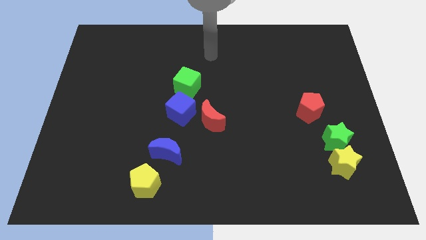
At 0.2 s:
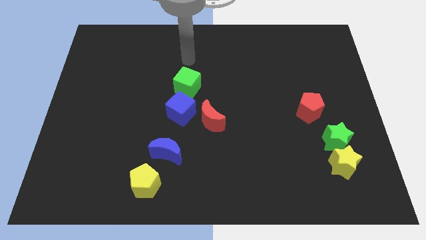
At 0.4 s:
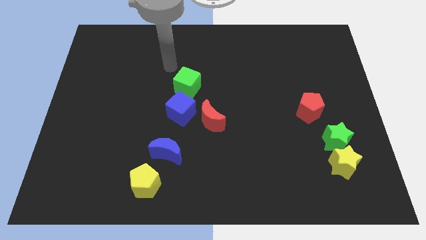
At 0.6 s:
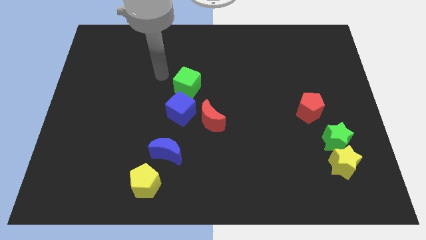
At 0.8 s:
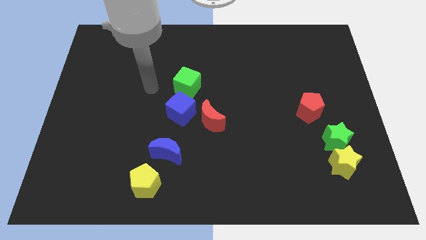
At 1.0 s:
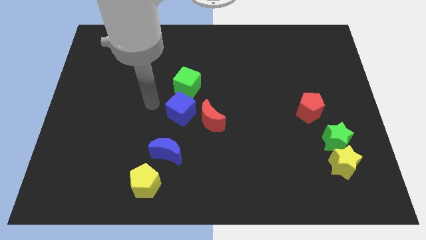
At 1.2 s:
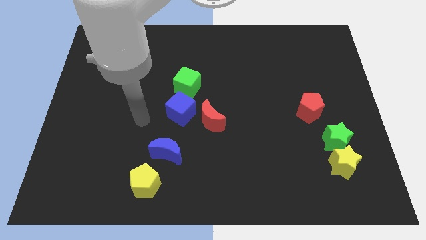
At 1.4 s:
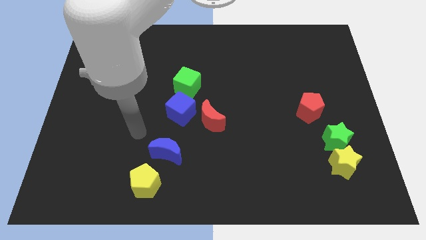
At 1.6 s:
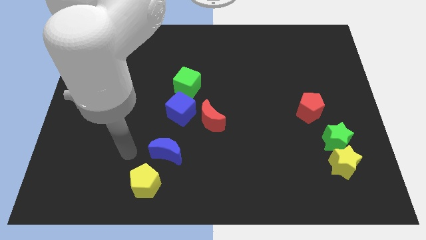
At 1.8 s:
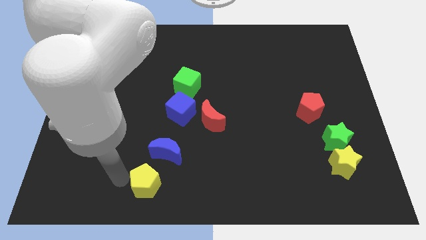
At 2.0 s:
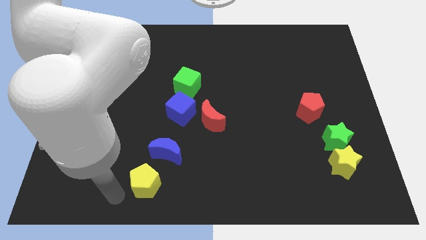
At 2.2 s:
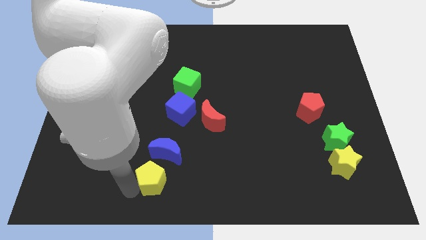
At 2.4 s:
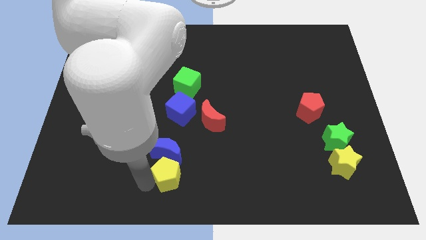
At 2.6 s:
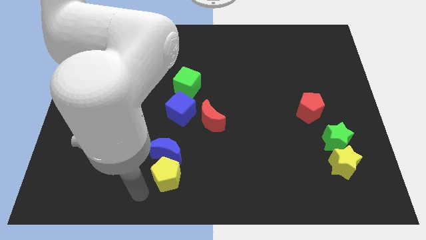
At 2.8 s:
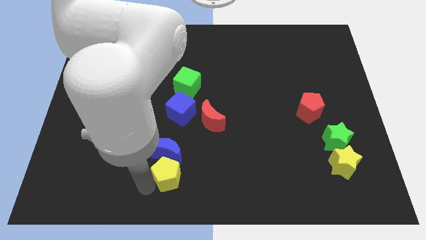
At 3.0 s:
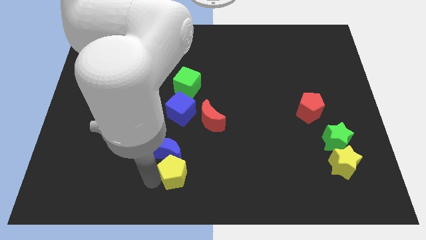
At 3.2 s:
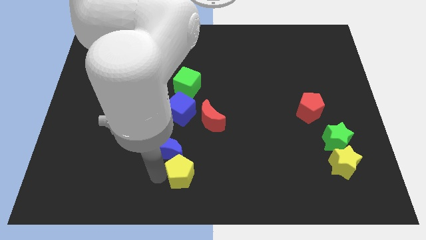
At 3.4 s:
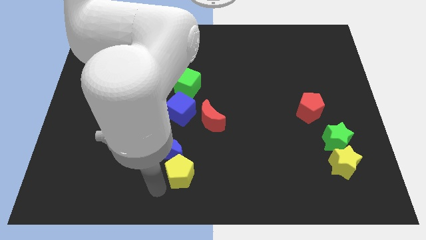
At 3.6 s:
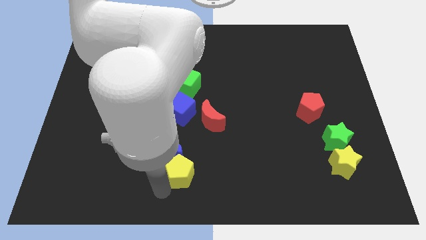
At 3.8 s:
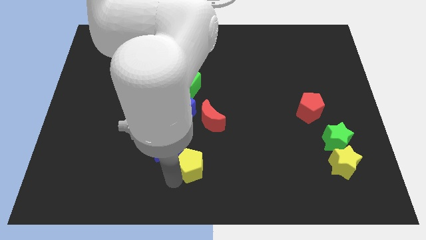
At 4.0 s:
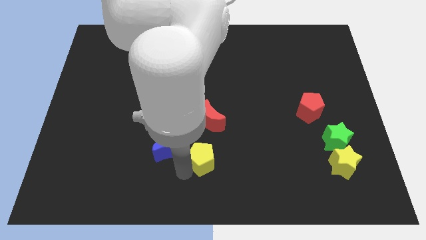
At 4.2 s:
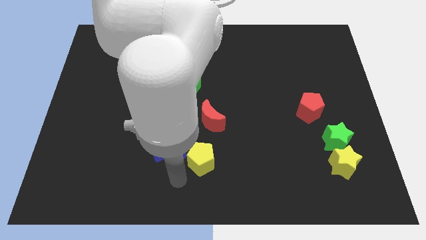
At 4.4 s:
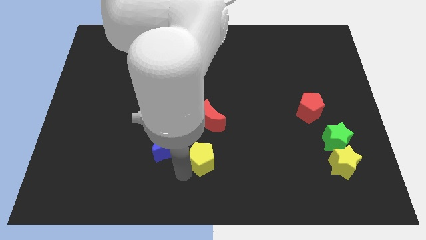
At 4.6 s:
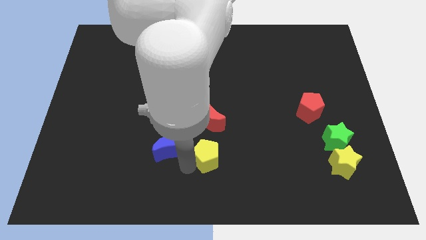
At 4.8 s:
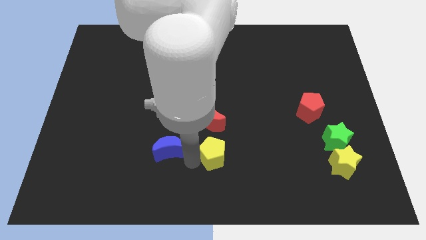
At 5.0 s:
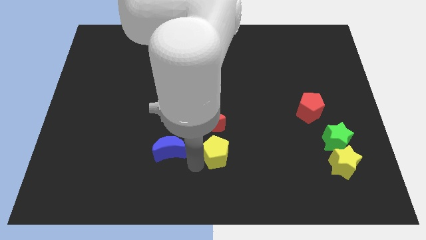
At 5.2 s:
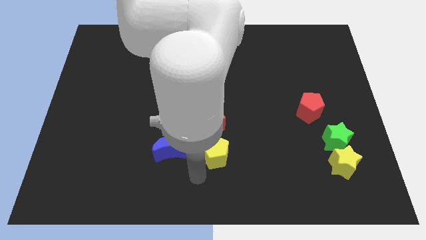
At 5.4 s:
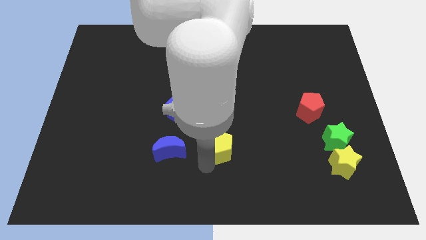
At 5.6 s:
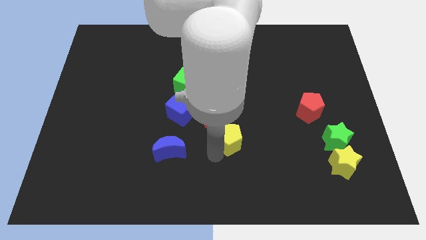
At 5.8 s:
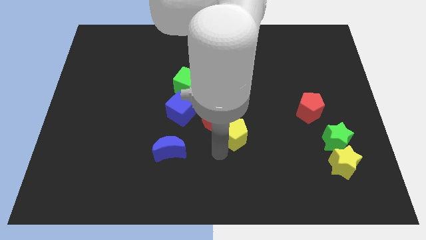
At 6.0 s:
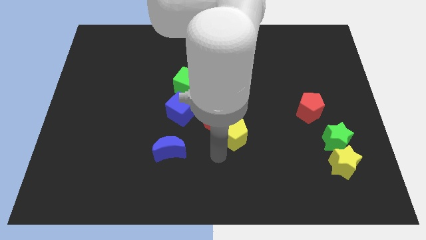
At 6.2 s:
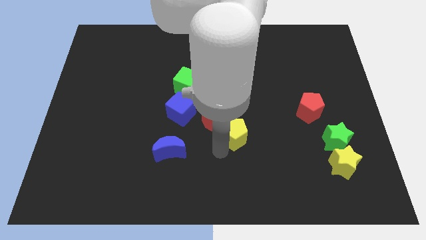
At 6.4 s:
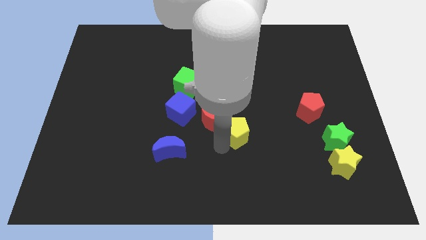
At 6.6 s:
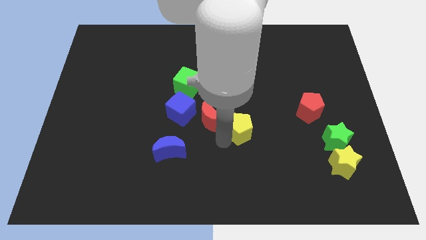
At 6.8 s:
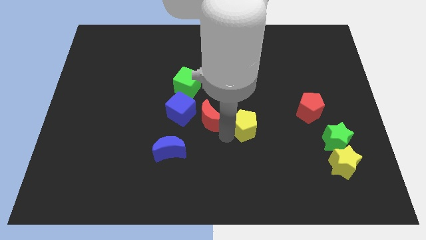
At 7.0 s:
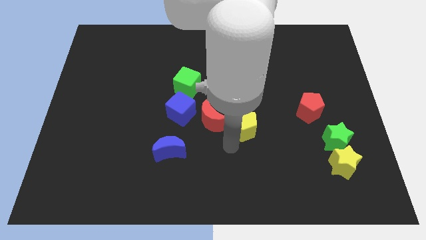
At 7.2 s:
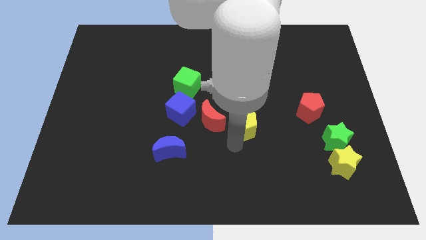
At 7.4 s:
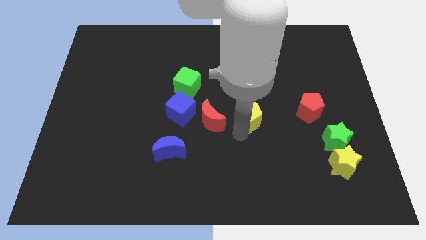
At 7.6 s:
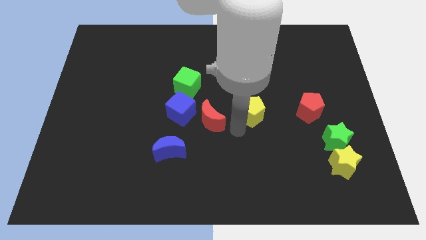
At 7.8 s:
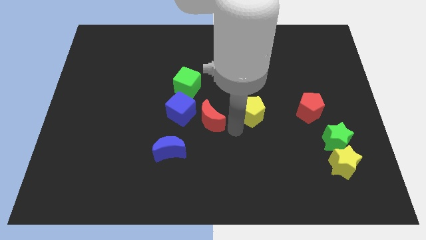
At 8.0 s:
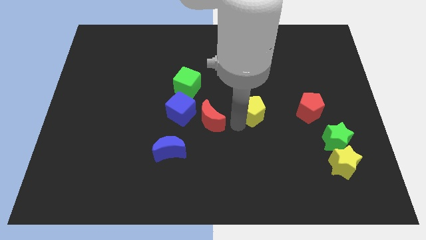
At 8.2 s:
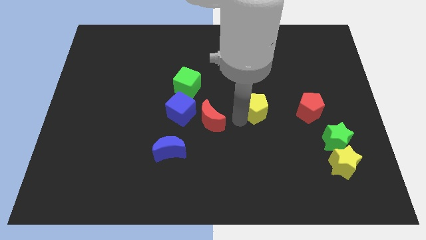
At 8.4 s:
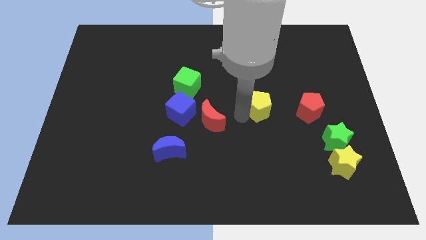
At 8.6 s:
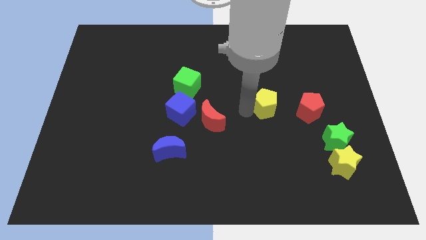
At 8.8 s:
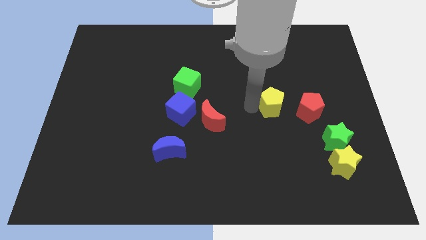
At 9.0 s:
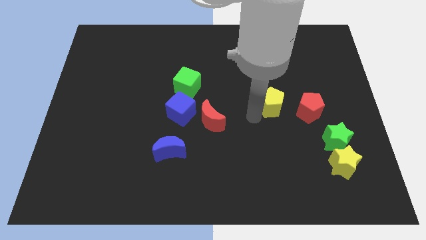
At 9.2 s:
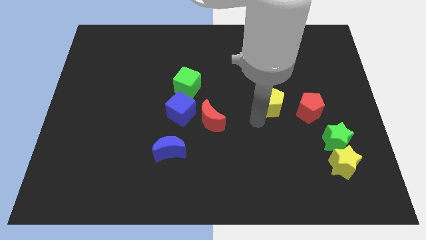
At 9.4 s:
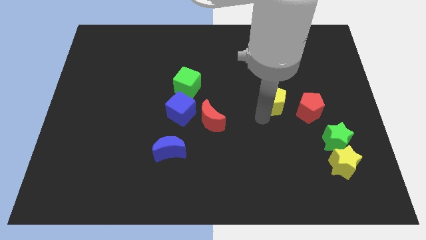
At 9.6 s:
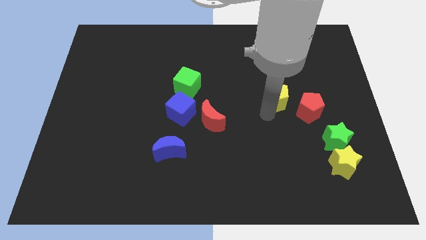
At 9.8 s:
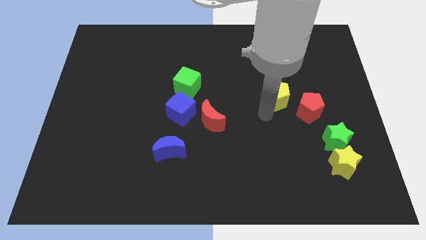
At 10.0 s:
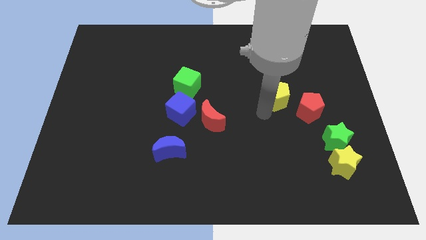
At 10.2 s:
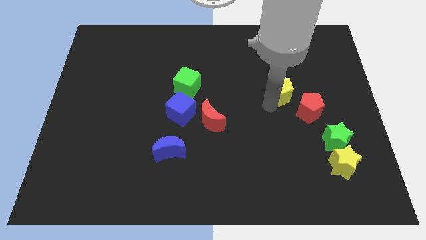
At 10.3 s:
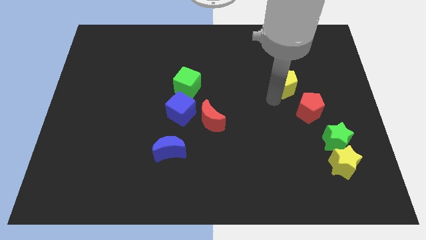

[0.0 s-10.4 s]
put the yellow pentagon to the top of the red pentagon

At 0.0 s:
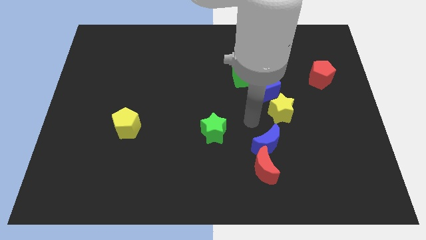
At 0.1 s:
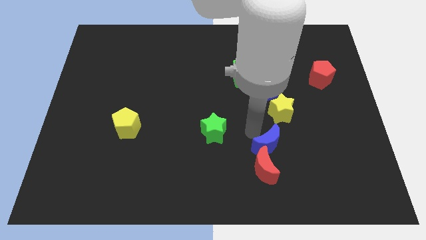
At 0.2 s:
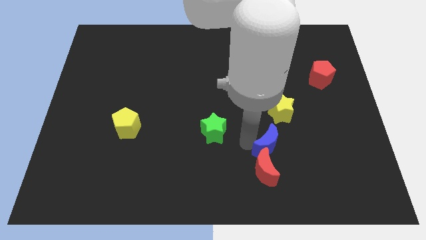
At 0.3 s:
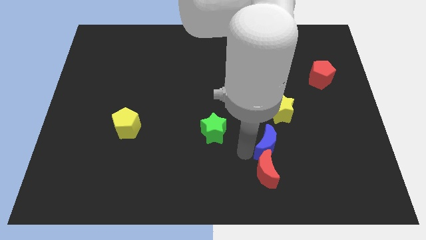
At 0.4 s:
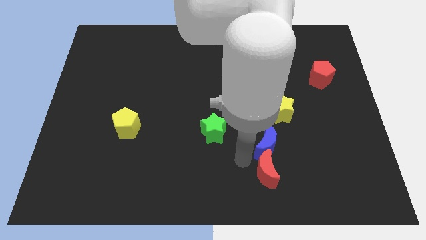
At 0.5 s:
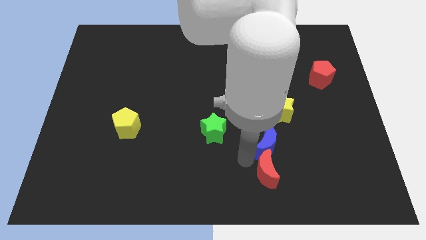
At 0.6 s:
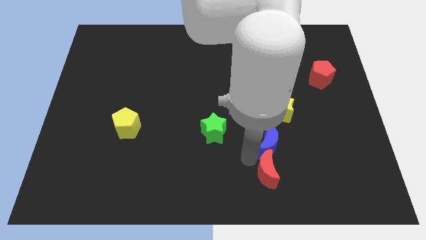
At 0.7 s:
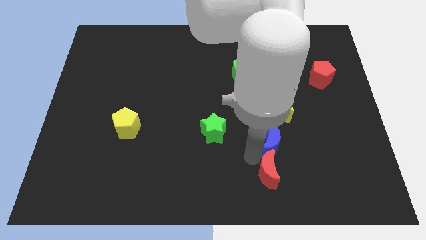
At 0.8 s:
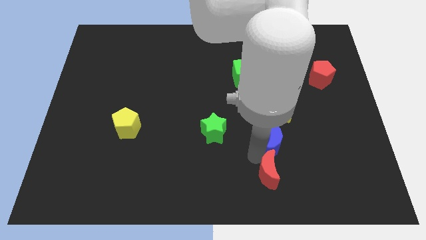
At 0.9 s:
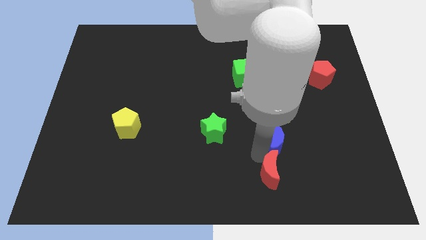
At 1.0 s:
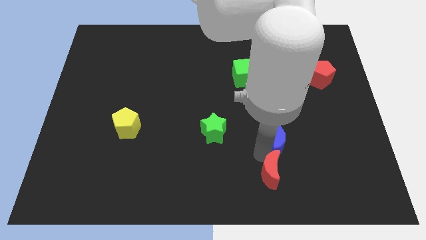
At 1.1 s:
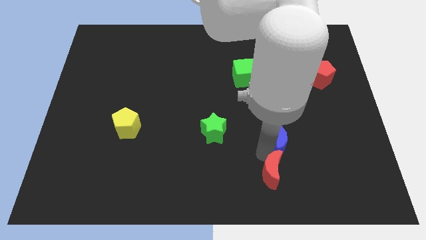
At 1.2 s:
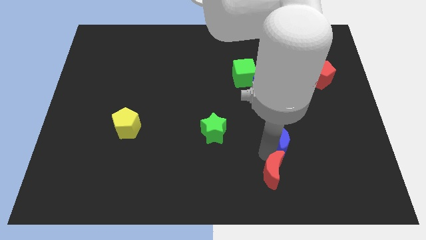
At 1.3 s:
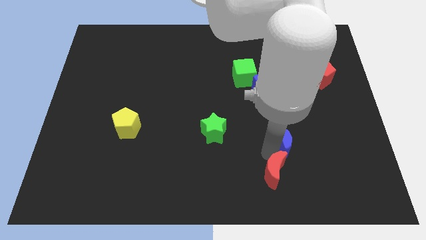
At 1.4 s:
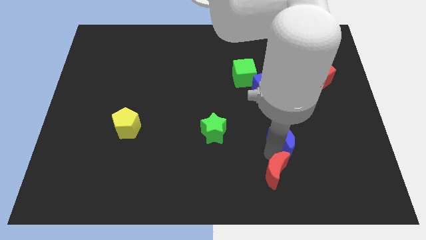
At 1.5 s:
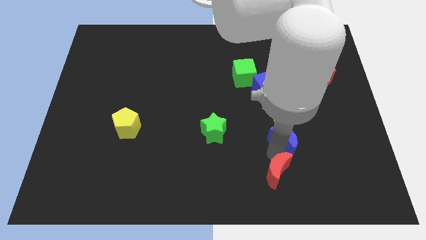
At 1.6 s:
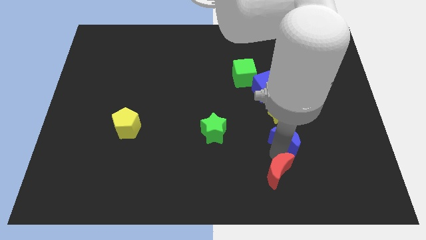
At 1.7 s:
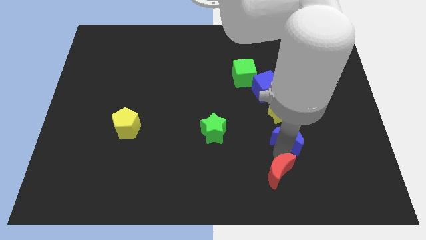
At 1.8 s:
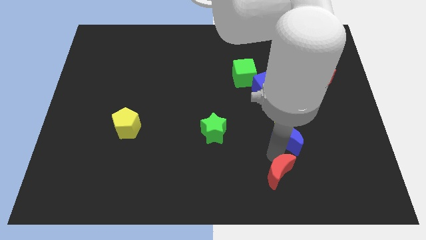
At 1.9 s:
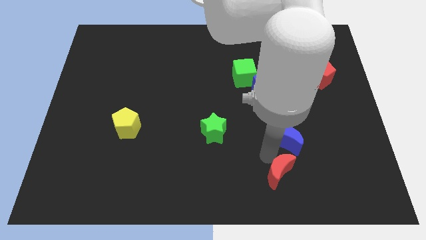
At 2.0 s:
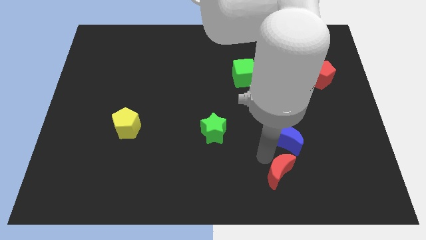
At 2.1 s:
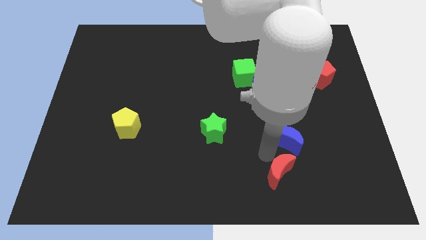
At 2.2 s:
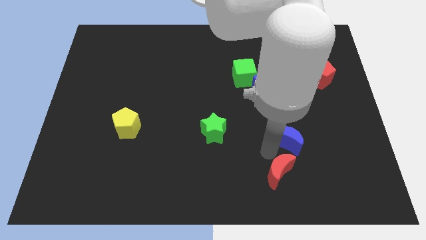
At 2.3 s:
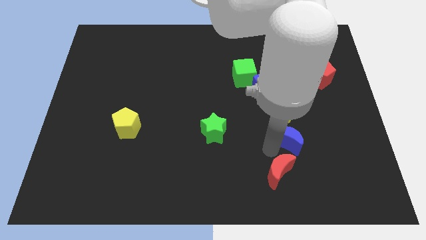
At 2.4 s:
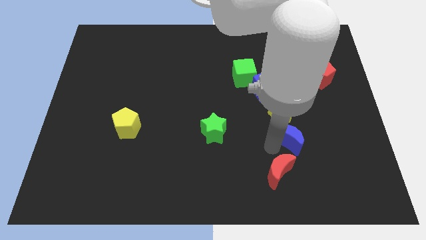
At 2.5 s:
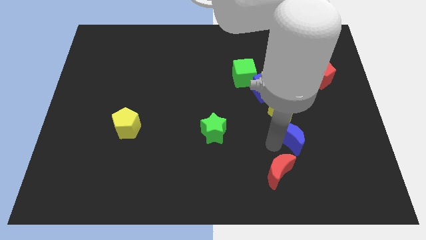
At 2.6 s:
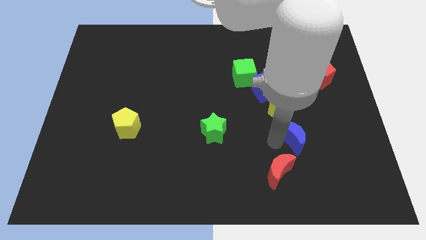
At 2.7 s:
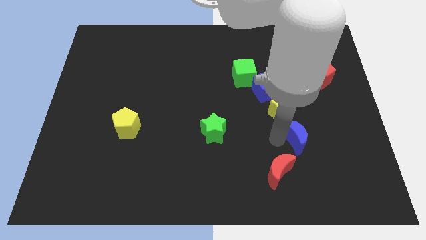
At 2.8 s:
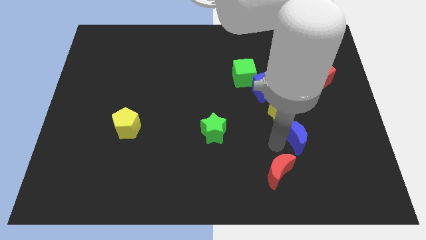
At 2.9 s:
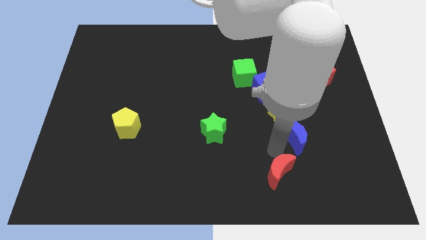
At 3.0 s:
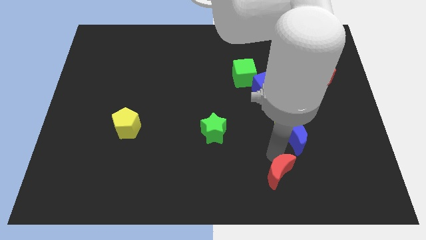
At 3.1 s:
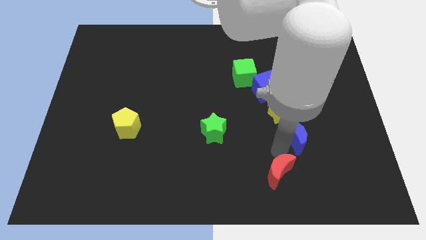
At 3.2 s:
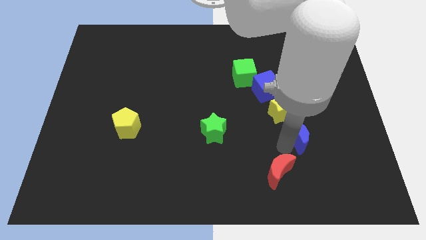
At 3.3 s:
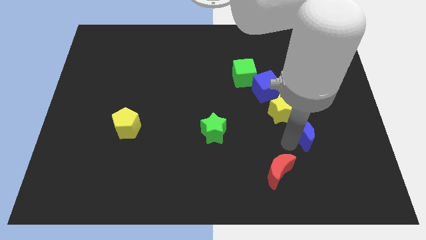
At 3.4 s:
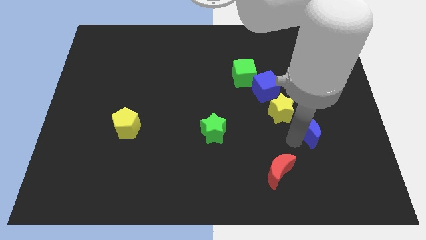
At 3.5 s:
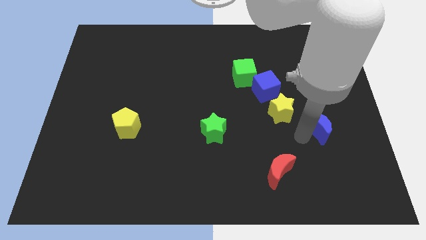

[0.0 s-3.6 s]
push the blue moon right of the yellow star
